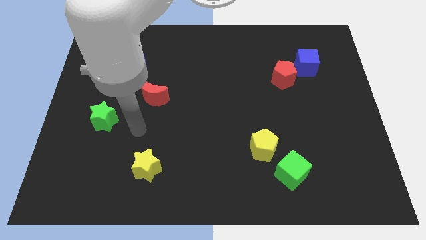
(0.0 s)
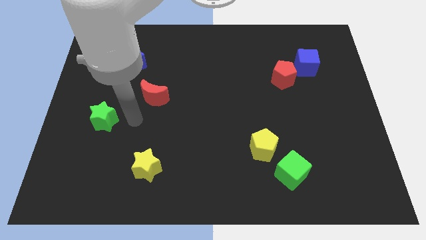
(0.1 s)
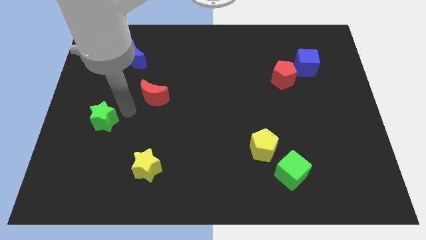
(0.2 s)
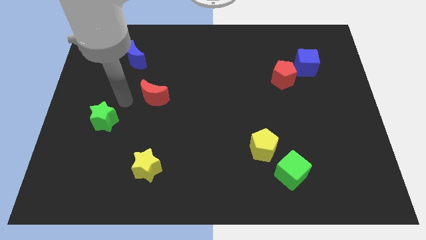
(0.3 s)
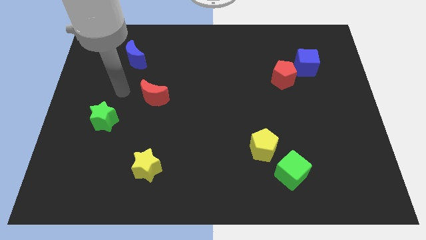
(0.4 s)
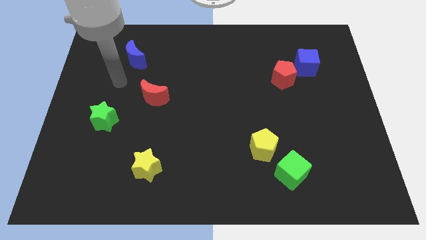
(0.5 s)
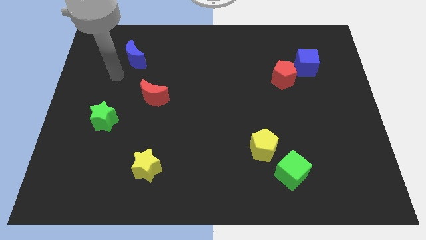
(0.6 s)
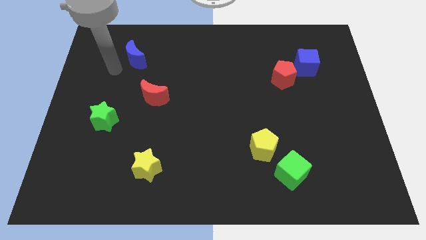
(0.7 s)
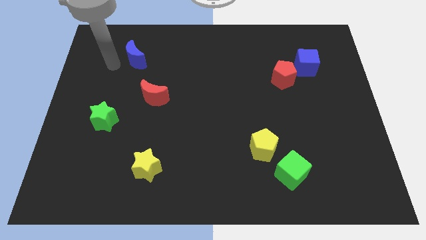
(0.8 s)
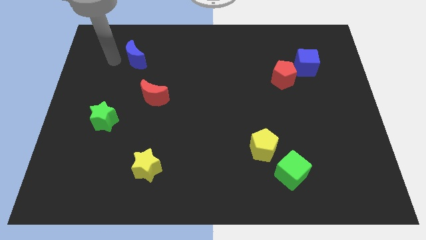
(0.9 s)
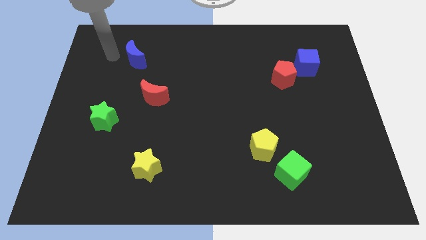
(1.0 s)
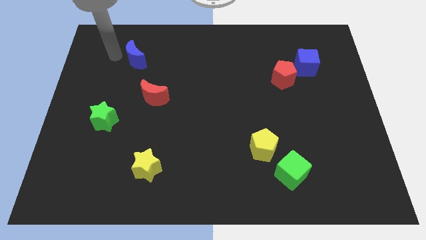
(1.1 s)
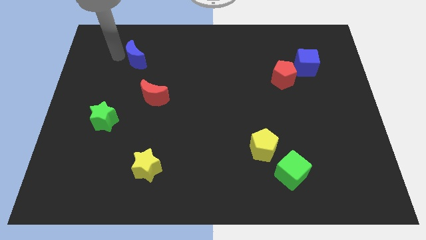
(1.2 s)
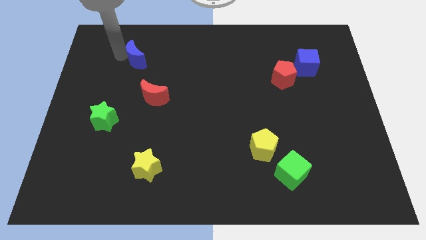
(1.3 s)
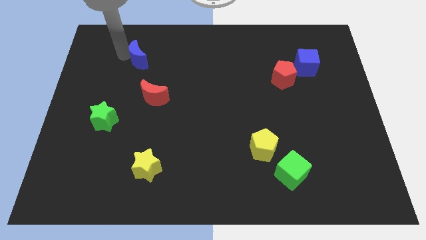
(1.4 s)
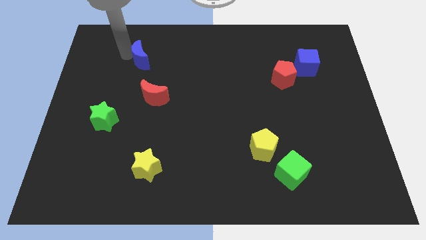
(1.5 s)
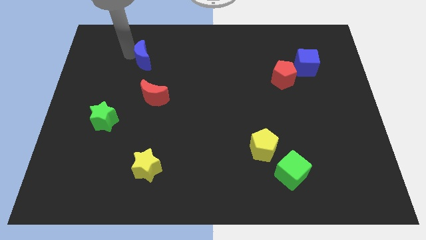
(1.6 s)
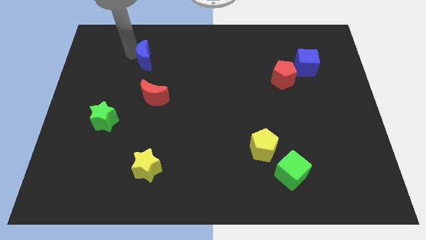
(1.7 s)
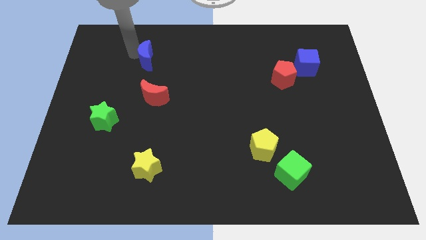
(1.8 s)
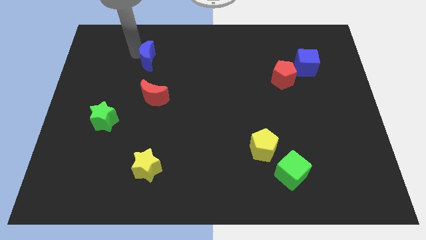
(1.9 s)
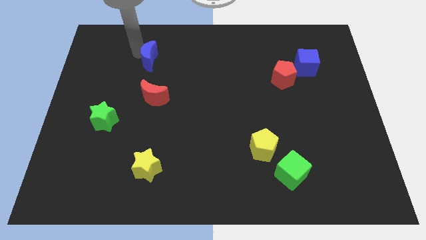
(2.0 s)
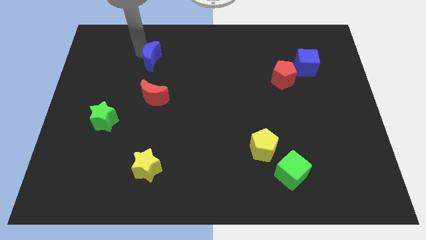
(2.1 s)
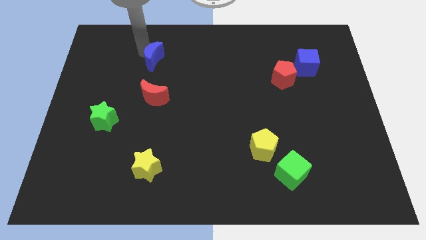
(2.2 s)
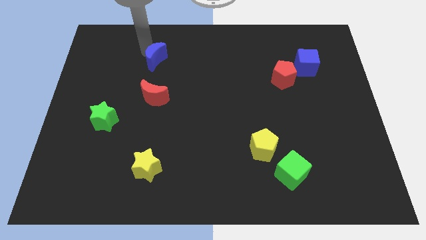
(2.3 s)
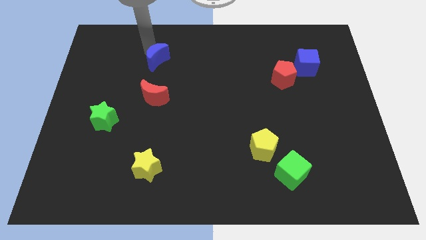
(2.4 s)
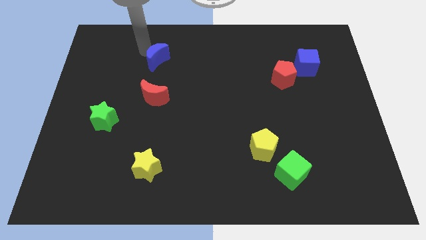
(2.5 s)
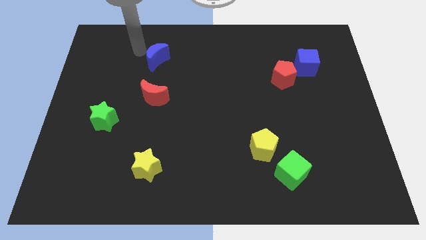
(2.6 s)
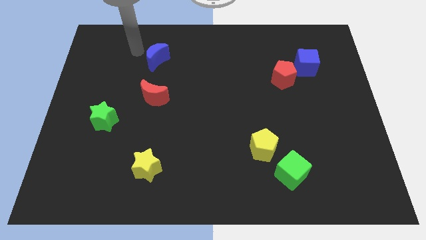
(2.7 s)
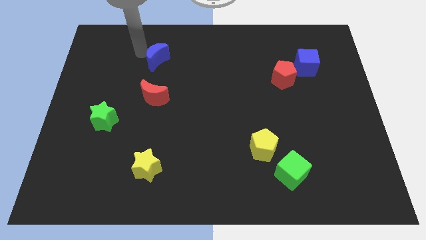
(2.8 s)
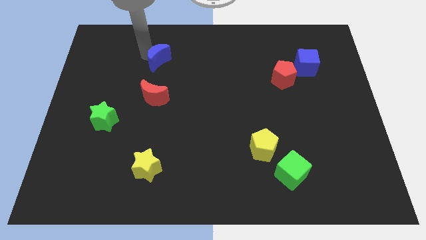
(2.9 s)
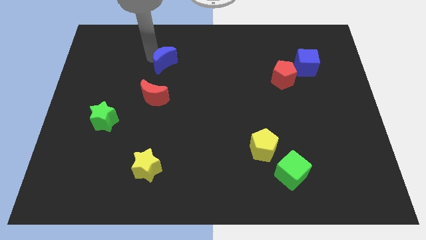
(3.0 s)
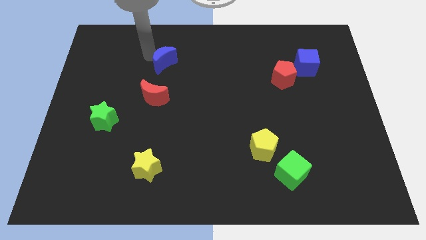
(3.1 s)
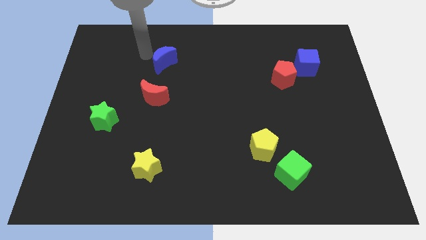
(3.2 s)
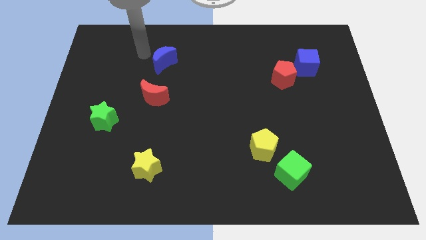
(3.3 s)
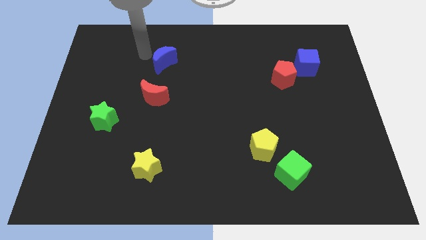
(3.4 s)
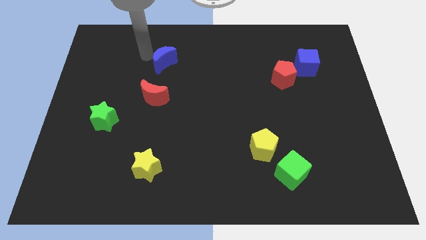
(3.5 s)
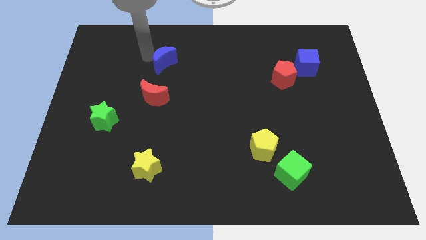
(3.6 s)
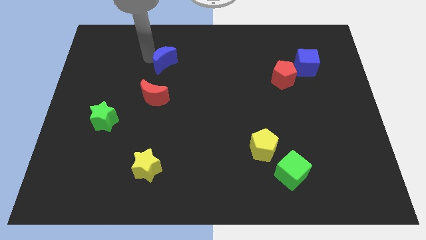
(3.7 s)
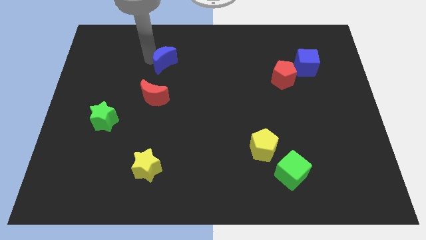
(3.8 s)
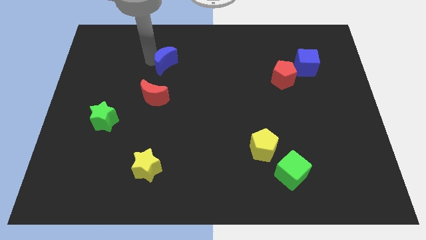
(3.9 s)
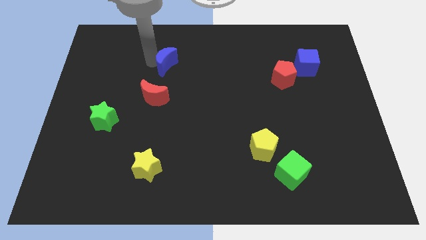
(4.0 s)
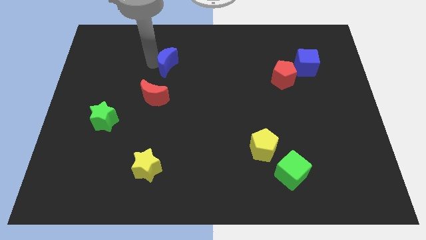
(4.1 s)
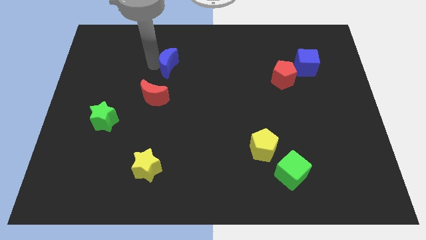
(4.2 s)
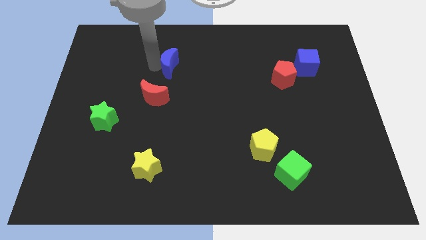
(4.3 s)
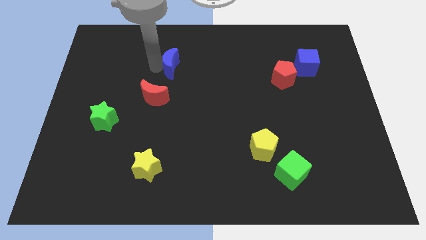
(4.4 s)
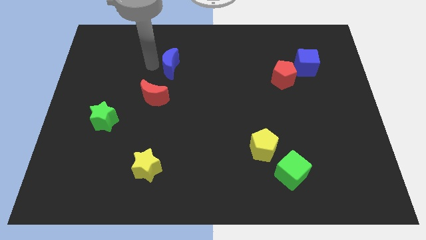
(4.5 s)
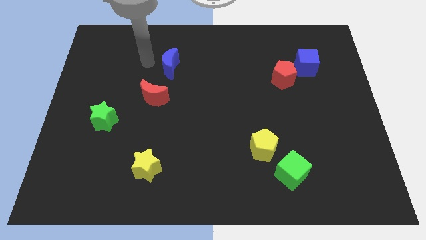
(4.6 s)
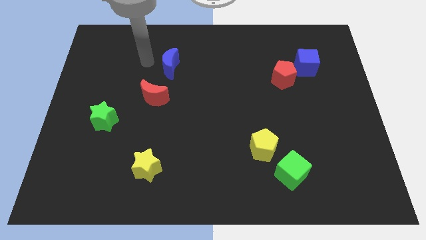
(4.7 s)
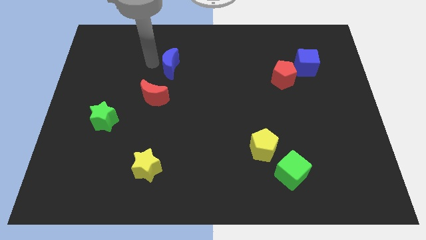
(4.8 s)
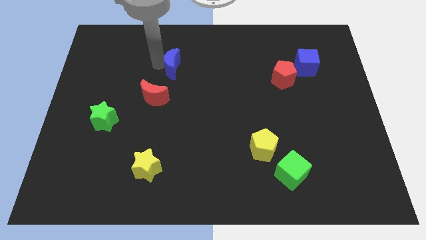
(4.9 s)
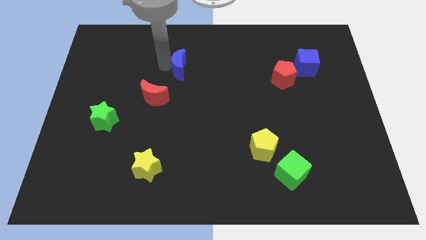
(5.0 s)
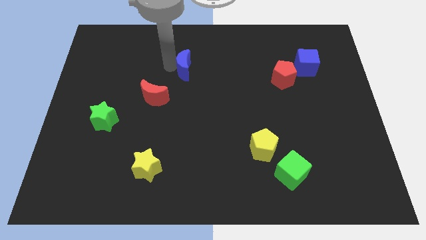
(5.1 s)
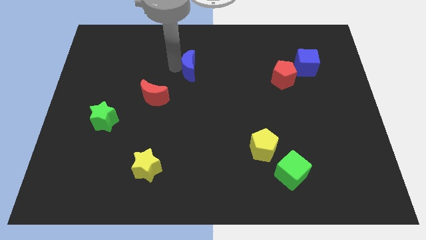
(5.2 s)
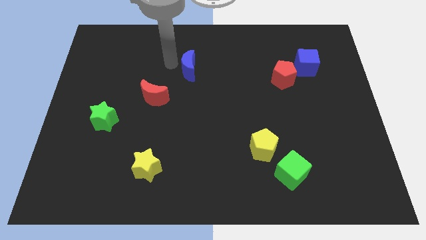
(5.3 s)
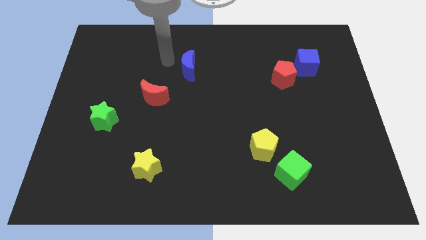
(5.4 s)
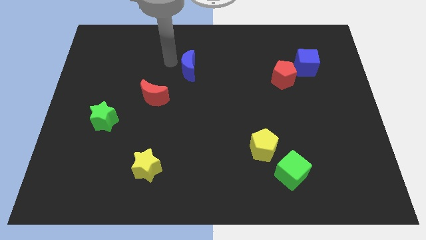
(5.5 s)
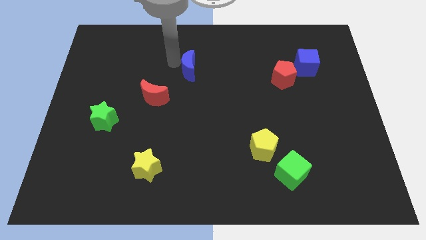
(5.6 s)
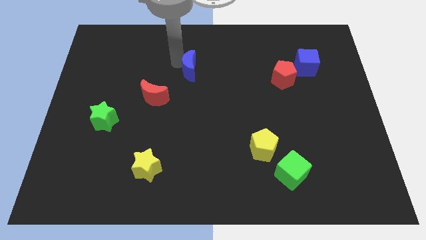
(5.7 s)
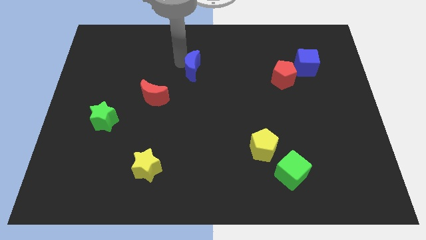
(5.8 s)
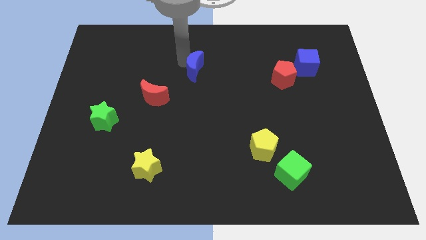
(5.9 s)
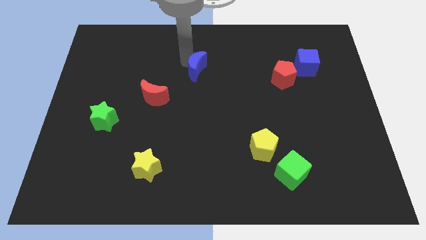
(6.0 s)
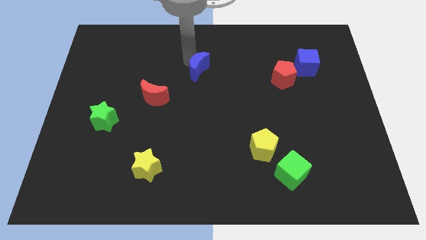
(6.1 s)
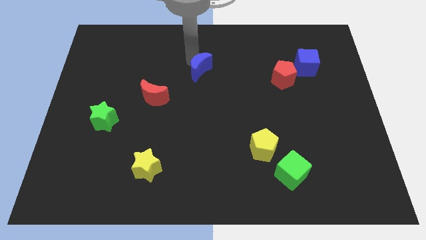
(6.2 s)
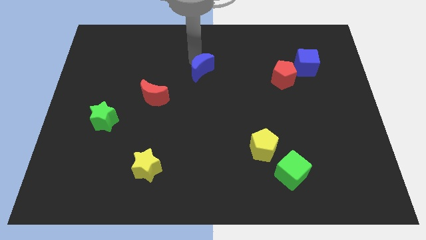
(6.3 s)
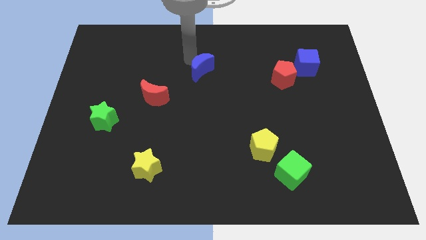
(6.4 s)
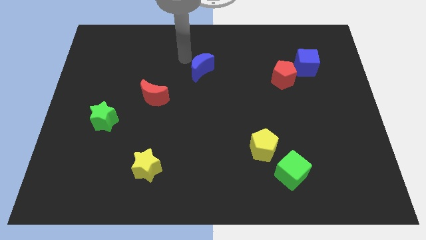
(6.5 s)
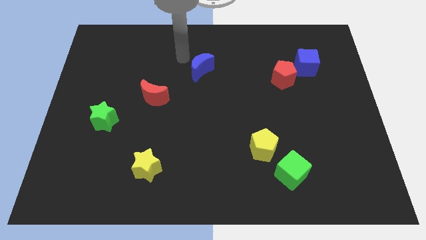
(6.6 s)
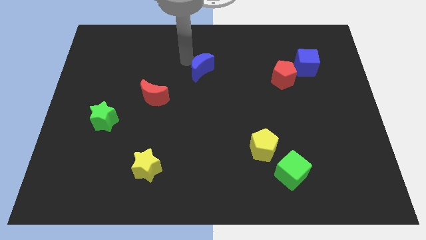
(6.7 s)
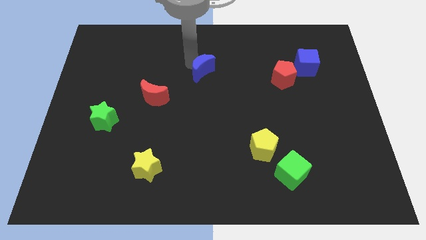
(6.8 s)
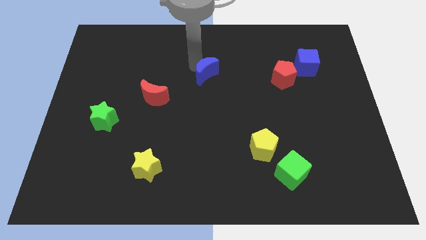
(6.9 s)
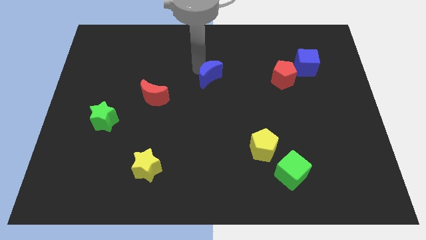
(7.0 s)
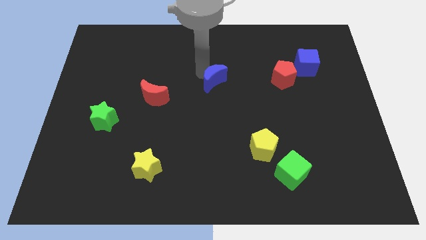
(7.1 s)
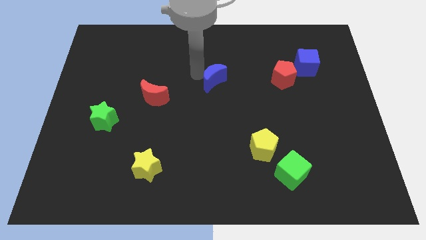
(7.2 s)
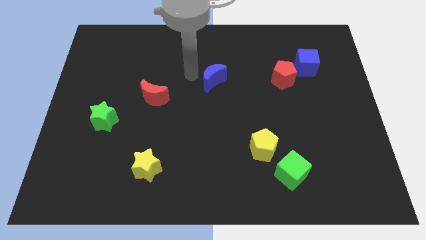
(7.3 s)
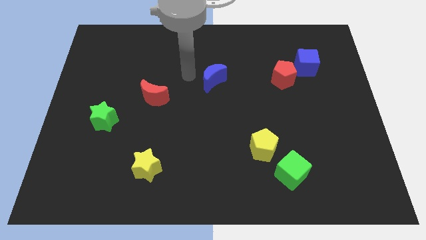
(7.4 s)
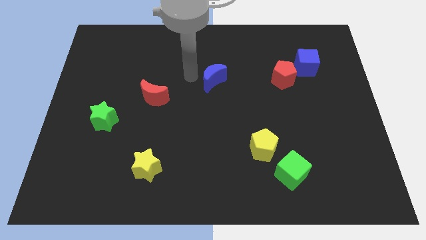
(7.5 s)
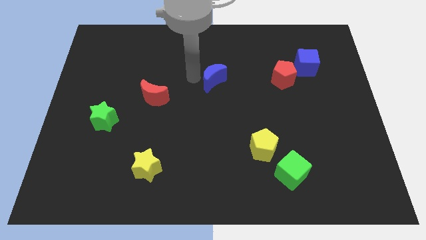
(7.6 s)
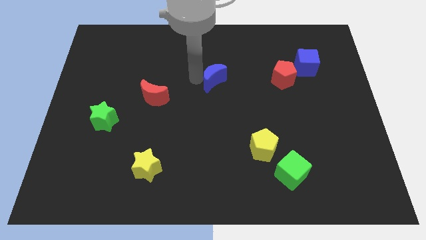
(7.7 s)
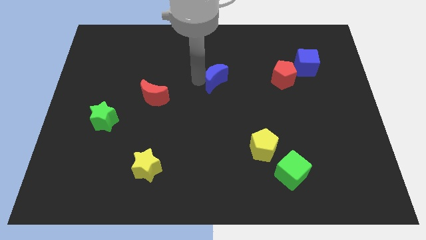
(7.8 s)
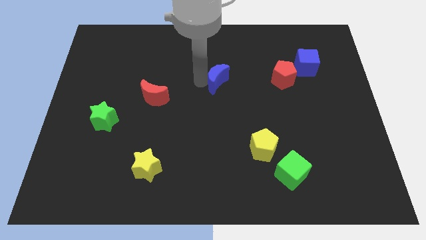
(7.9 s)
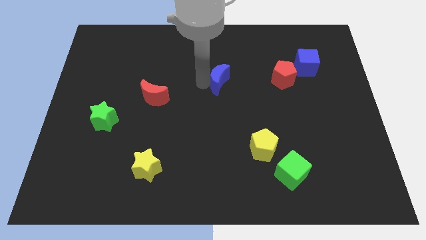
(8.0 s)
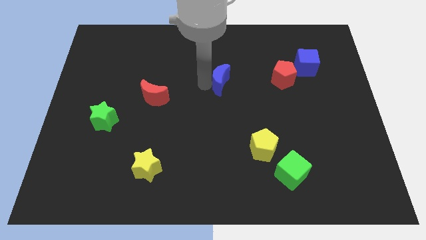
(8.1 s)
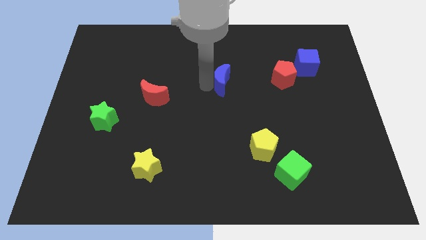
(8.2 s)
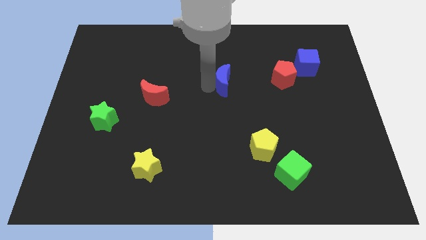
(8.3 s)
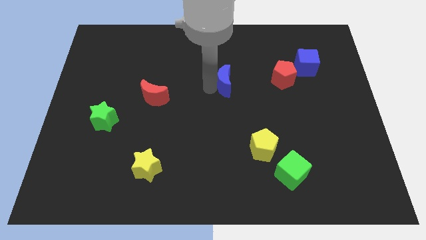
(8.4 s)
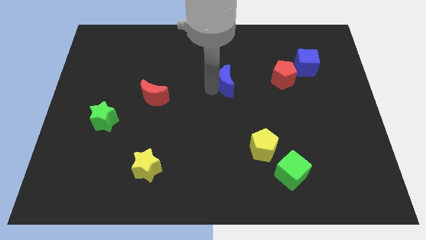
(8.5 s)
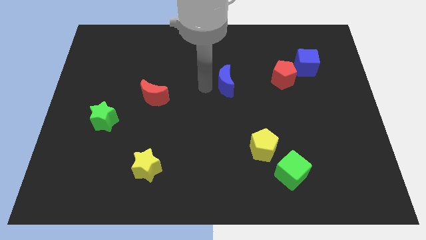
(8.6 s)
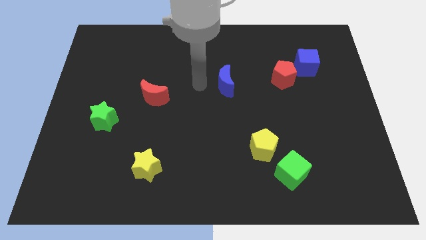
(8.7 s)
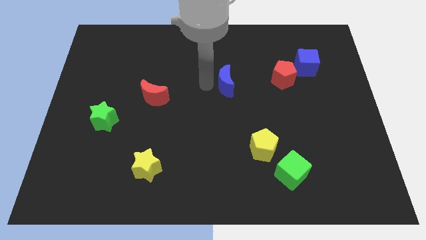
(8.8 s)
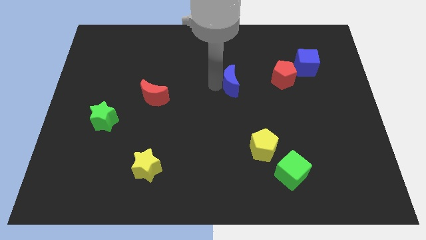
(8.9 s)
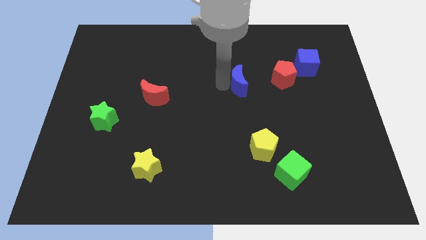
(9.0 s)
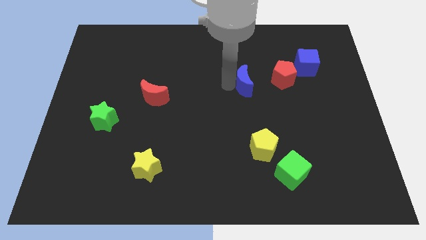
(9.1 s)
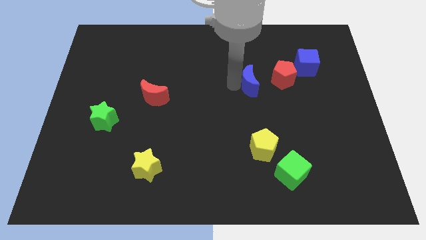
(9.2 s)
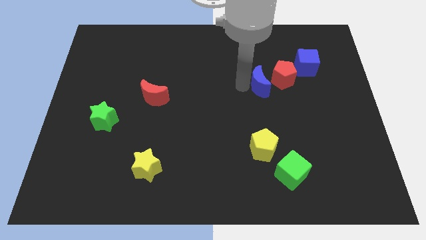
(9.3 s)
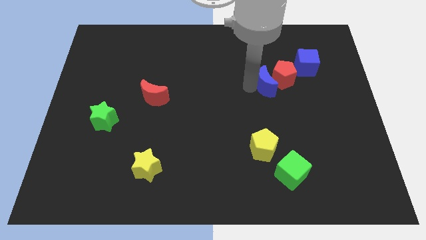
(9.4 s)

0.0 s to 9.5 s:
move the blue moon towards the red pentagon
